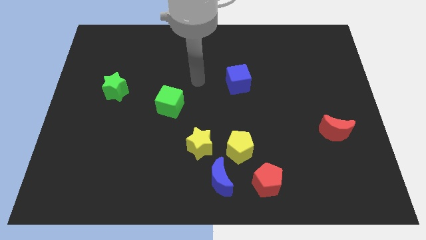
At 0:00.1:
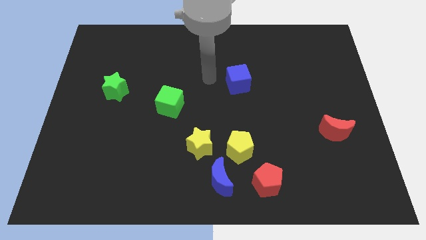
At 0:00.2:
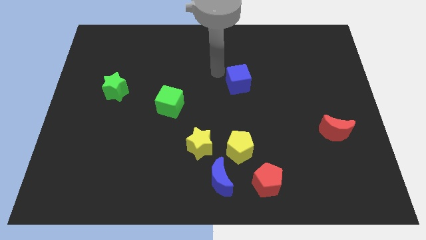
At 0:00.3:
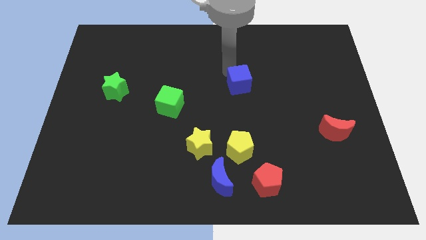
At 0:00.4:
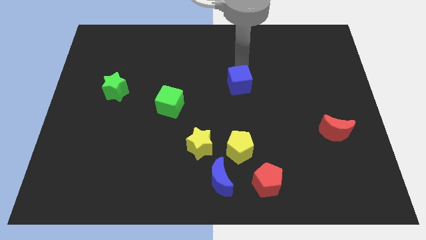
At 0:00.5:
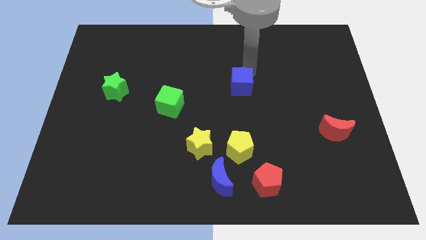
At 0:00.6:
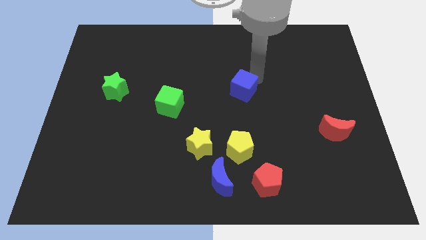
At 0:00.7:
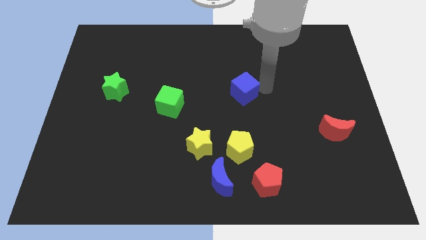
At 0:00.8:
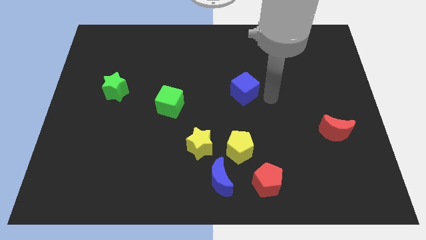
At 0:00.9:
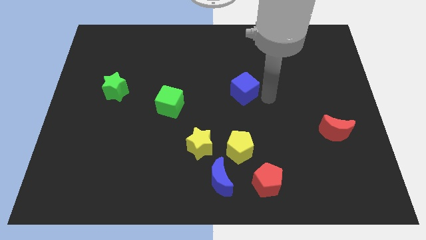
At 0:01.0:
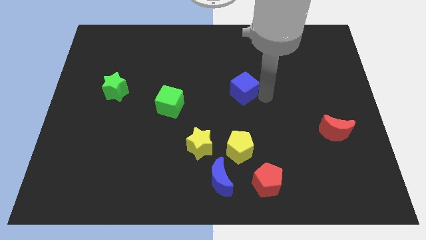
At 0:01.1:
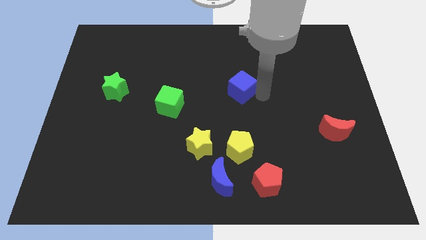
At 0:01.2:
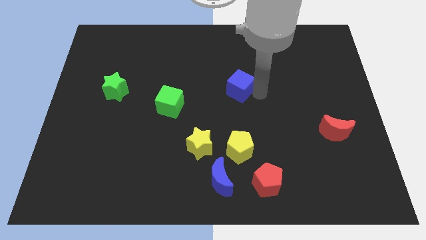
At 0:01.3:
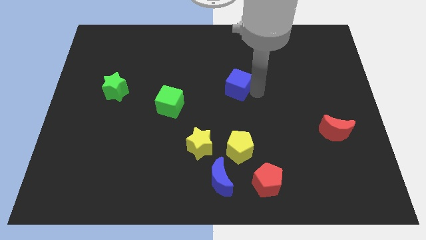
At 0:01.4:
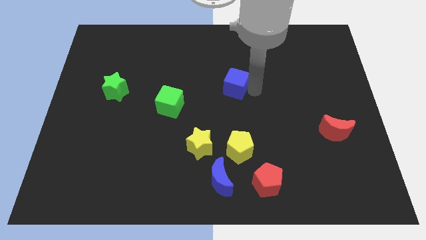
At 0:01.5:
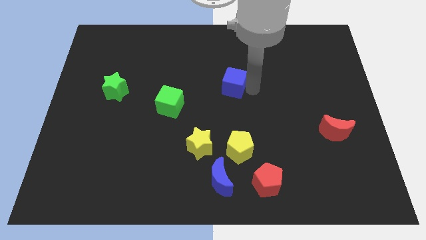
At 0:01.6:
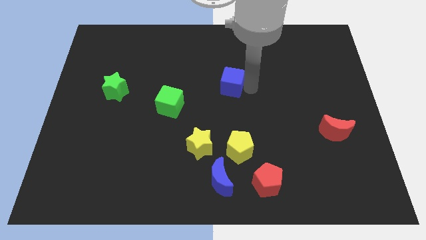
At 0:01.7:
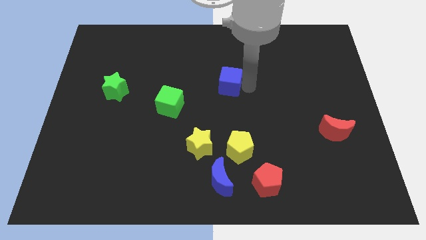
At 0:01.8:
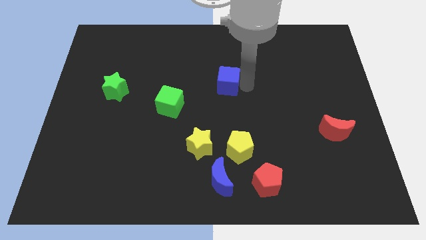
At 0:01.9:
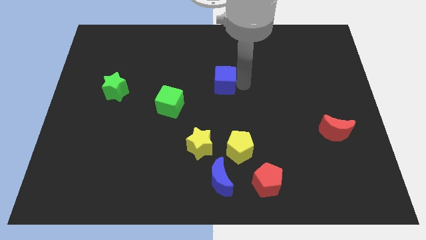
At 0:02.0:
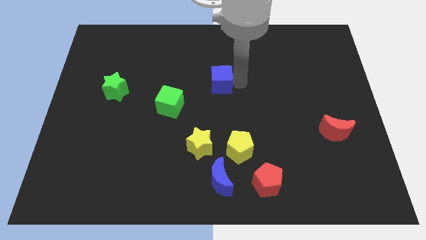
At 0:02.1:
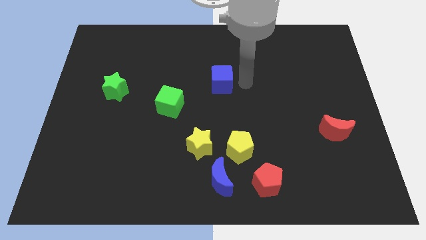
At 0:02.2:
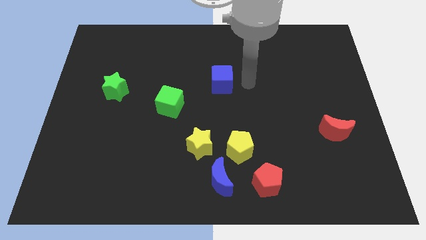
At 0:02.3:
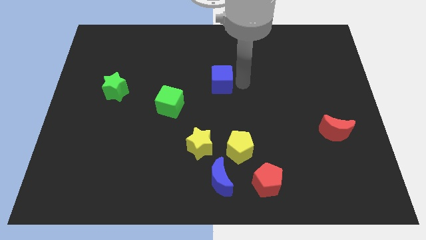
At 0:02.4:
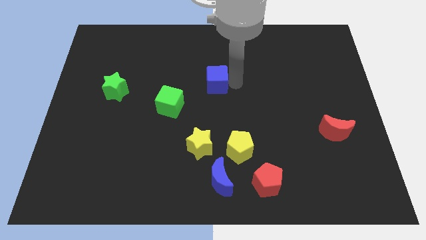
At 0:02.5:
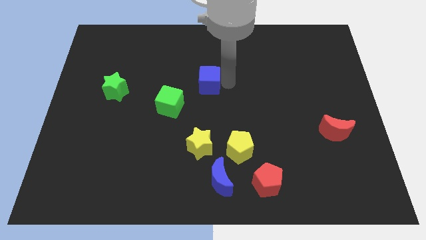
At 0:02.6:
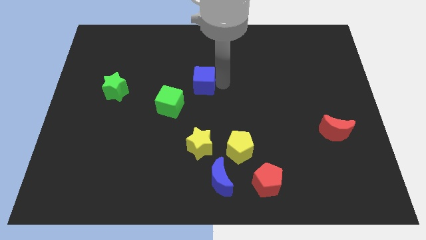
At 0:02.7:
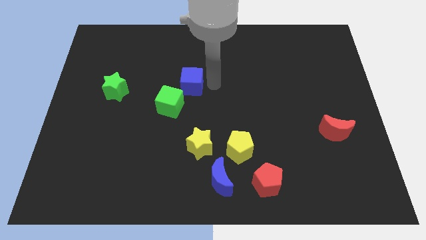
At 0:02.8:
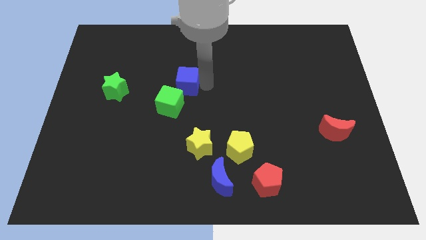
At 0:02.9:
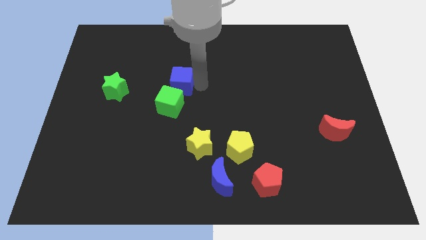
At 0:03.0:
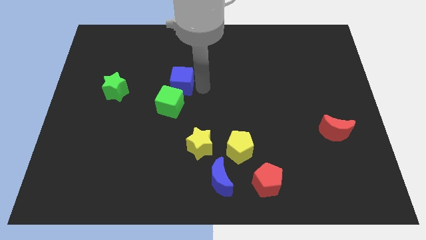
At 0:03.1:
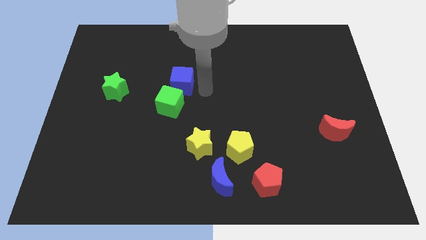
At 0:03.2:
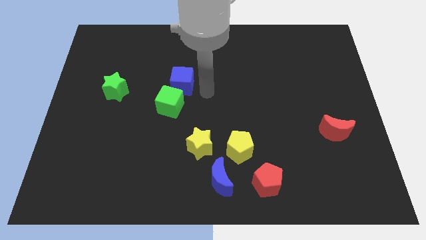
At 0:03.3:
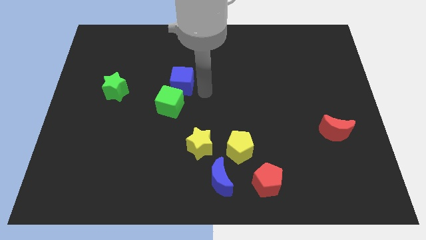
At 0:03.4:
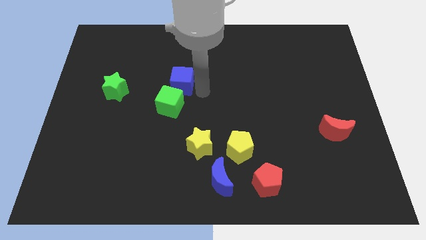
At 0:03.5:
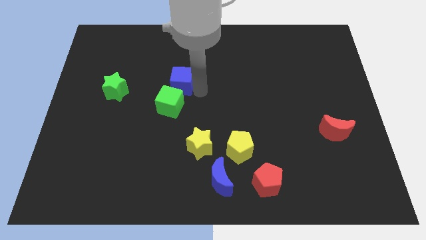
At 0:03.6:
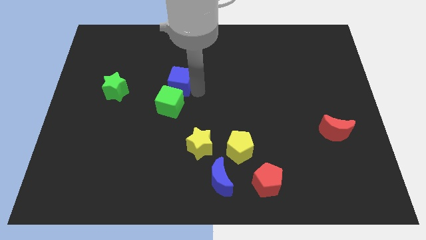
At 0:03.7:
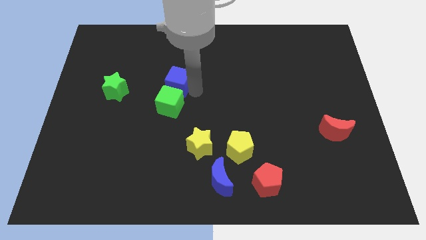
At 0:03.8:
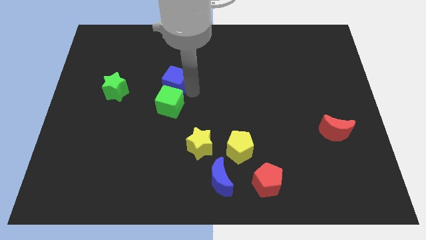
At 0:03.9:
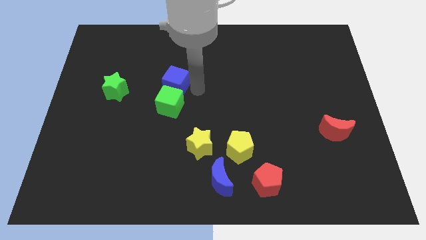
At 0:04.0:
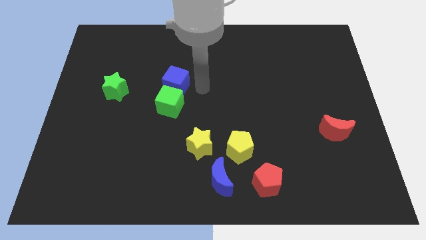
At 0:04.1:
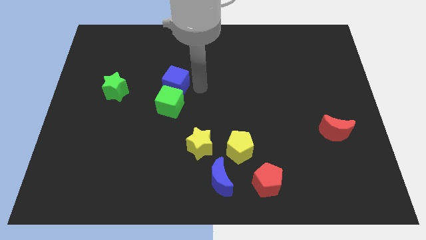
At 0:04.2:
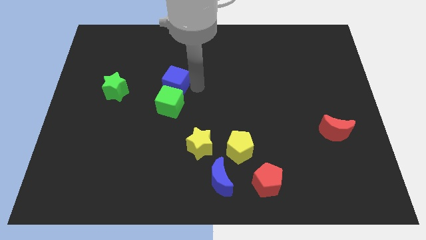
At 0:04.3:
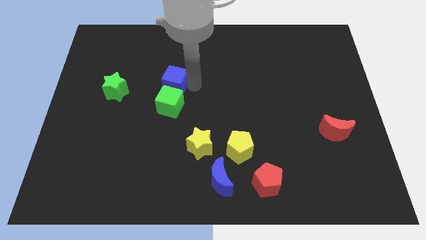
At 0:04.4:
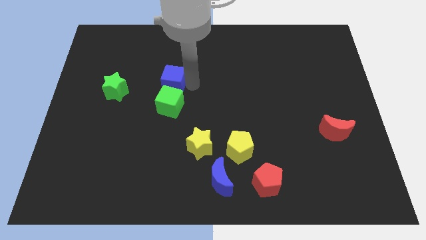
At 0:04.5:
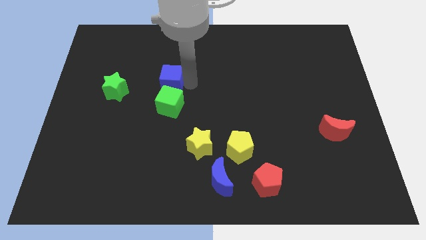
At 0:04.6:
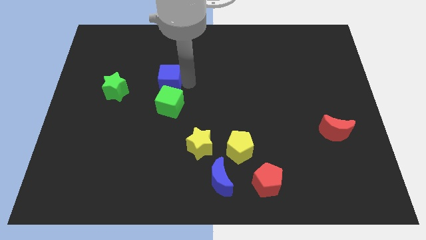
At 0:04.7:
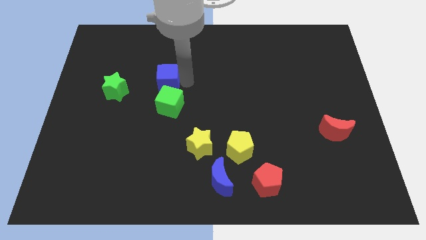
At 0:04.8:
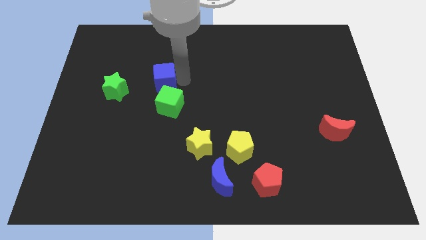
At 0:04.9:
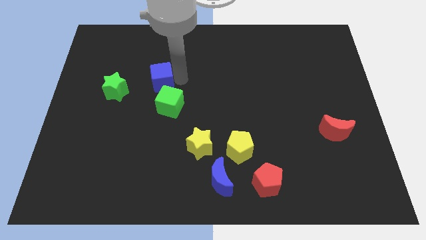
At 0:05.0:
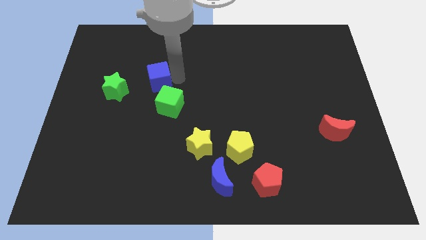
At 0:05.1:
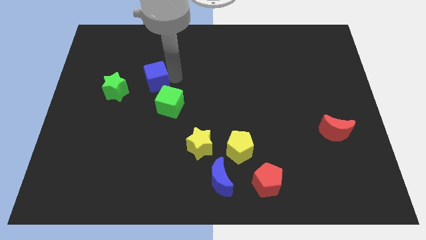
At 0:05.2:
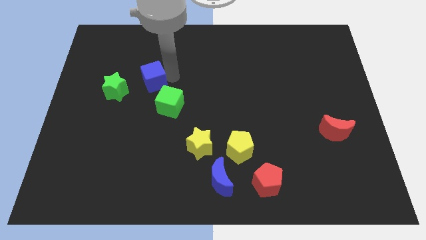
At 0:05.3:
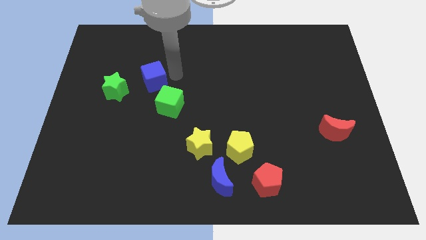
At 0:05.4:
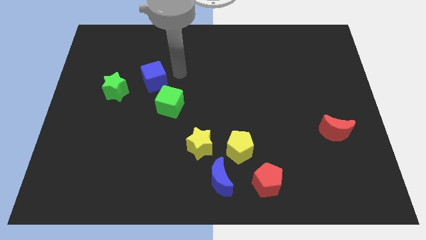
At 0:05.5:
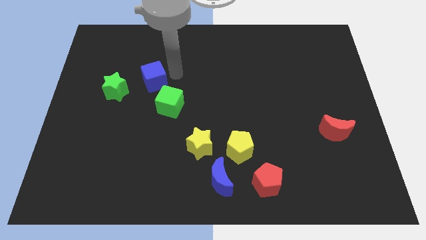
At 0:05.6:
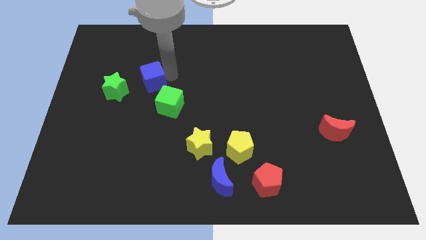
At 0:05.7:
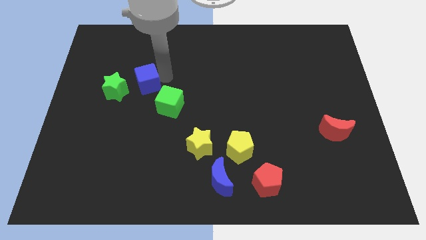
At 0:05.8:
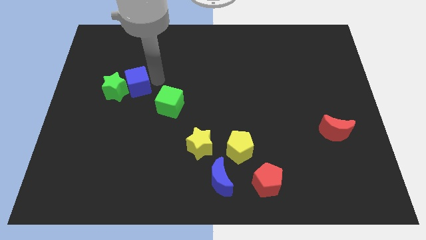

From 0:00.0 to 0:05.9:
put the blue cube towards the green star

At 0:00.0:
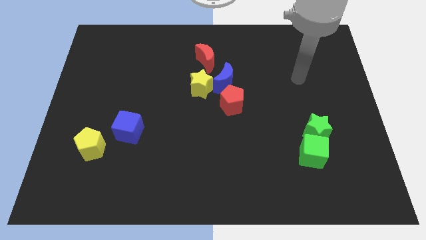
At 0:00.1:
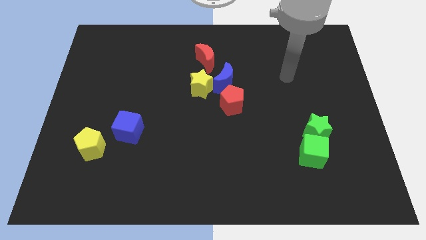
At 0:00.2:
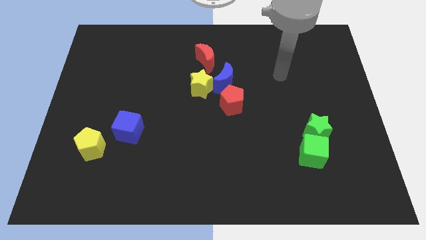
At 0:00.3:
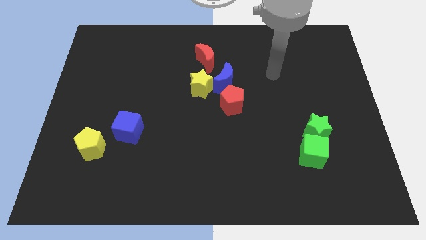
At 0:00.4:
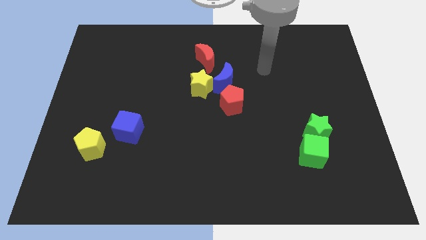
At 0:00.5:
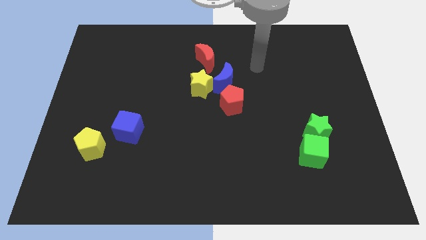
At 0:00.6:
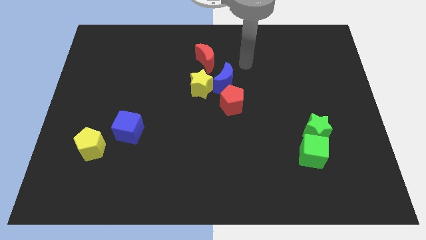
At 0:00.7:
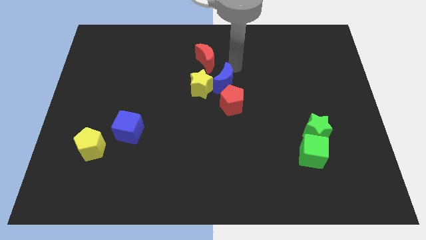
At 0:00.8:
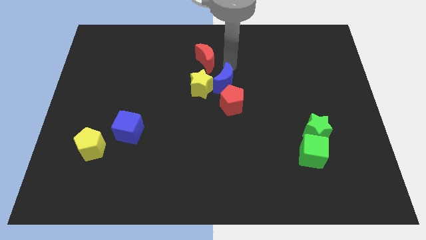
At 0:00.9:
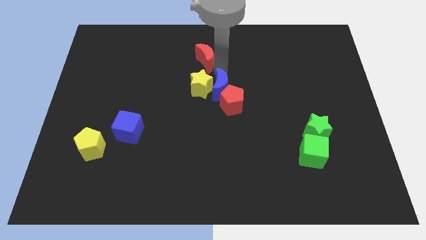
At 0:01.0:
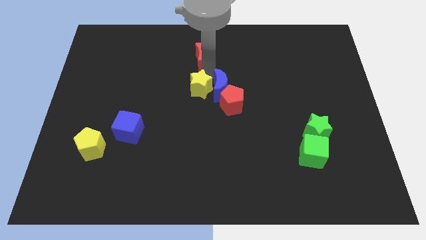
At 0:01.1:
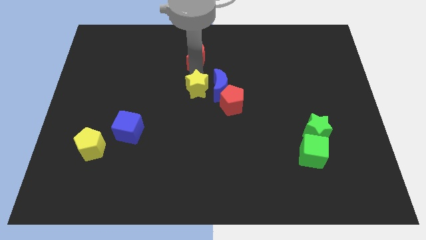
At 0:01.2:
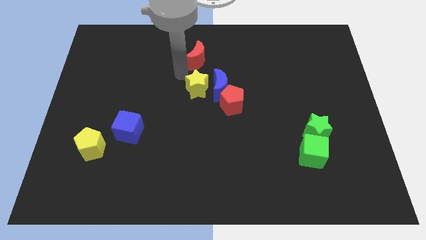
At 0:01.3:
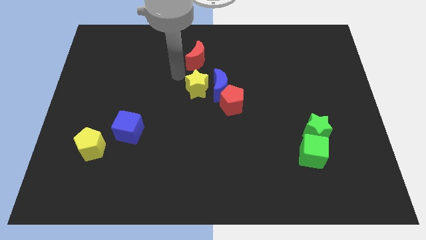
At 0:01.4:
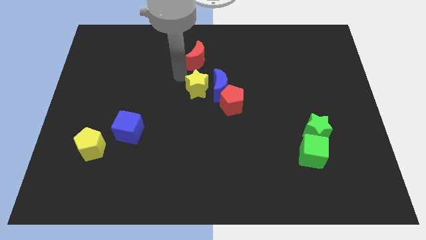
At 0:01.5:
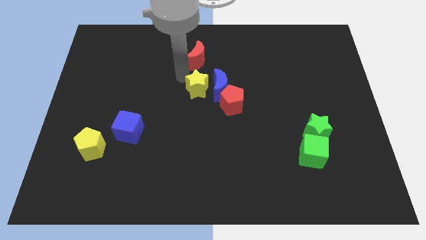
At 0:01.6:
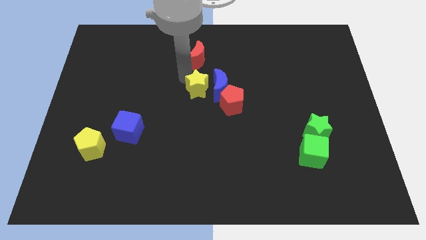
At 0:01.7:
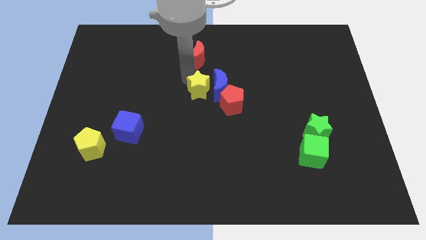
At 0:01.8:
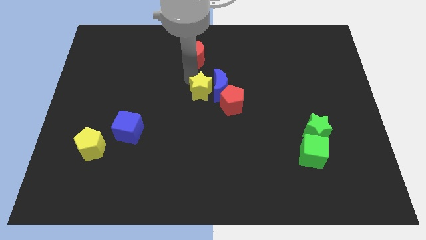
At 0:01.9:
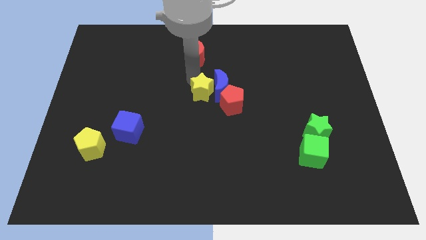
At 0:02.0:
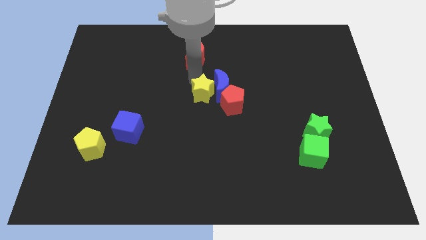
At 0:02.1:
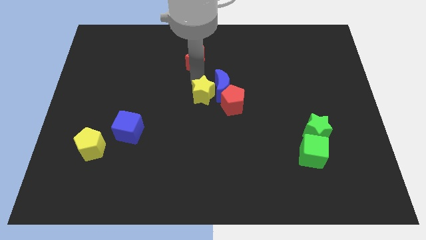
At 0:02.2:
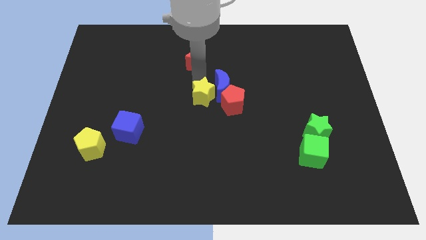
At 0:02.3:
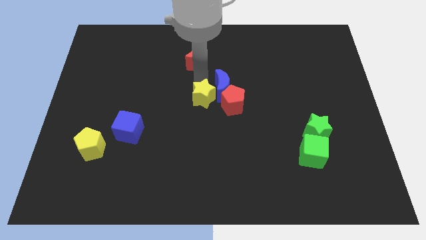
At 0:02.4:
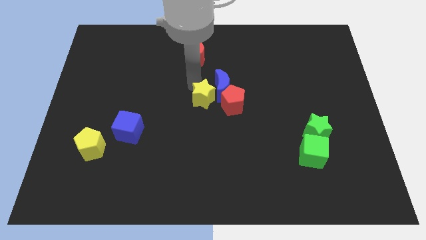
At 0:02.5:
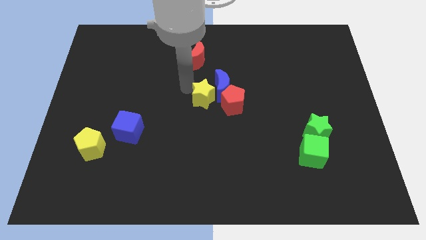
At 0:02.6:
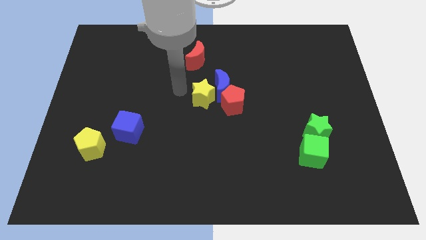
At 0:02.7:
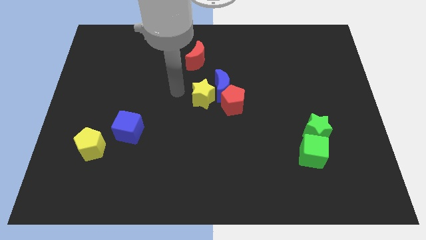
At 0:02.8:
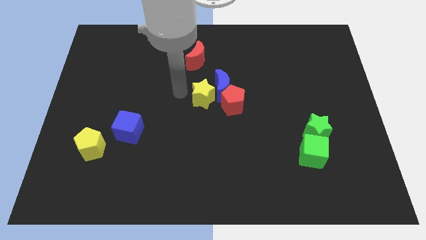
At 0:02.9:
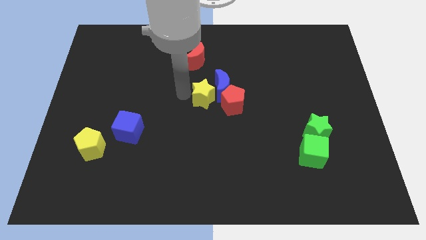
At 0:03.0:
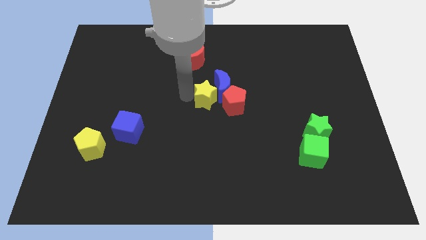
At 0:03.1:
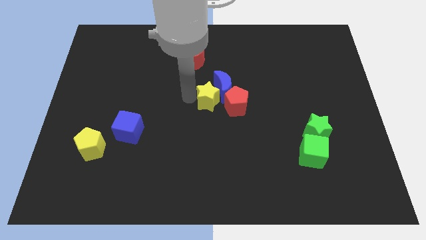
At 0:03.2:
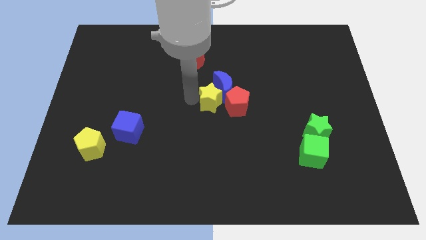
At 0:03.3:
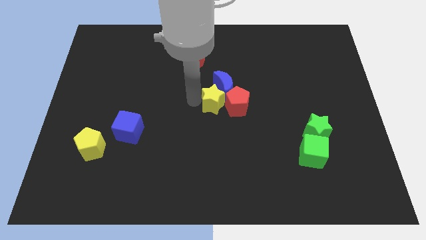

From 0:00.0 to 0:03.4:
move the yellow star towards the red pentagon
